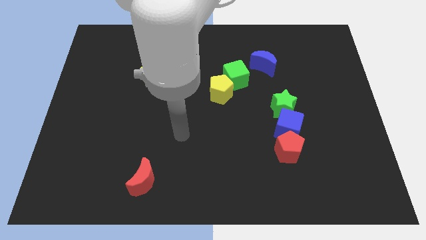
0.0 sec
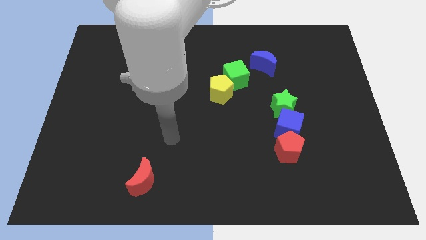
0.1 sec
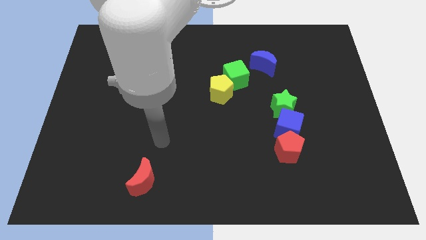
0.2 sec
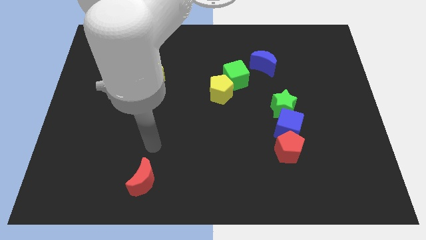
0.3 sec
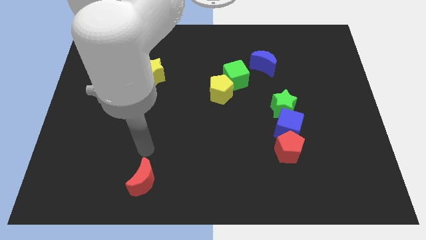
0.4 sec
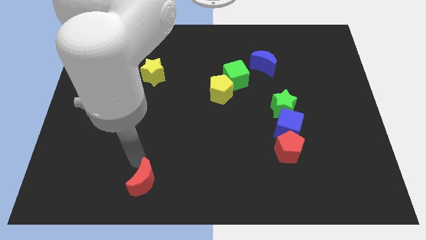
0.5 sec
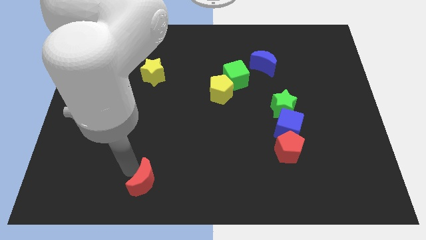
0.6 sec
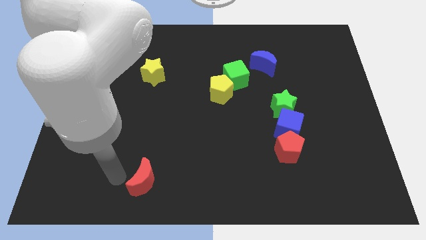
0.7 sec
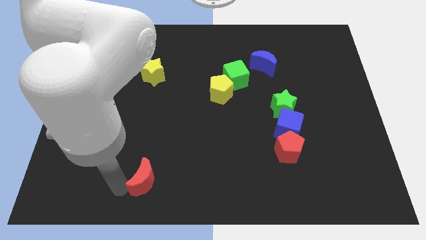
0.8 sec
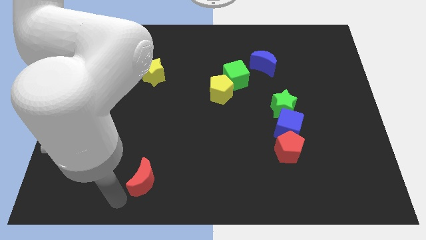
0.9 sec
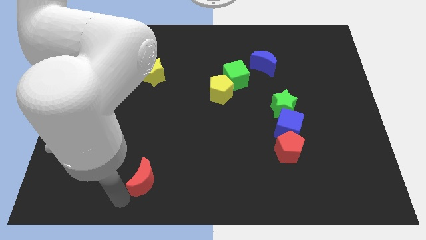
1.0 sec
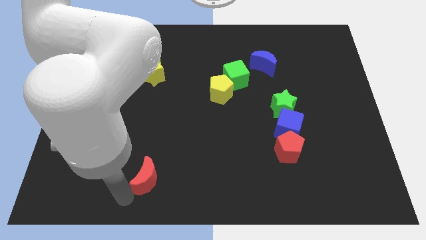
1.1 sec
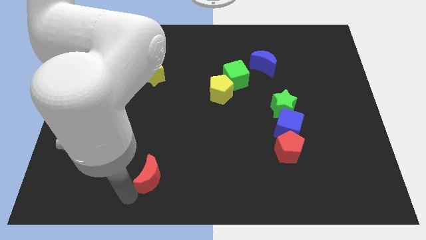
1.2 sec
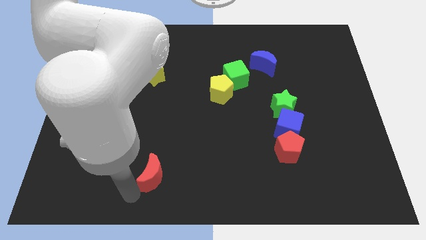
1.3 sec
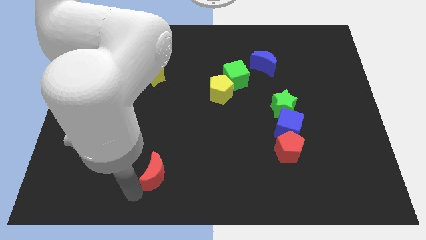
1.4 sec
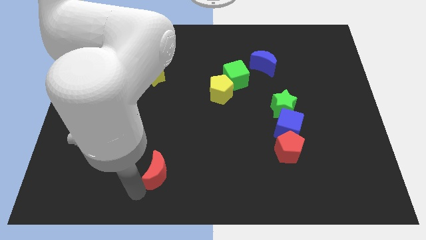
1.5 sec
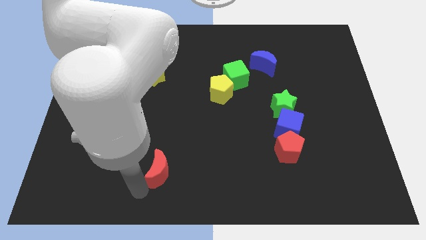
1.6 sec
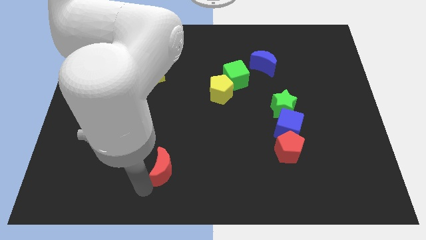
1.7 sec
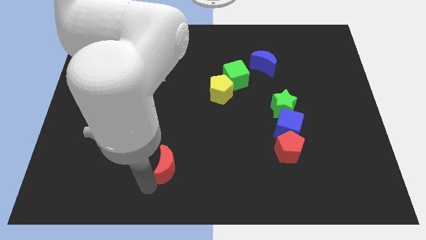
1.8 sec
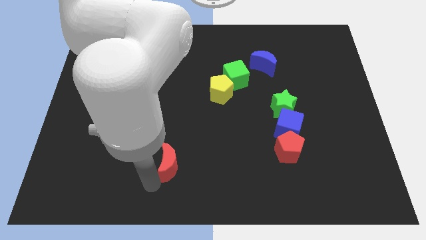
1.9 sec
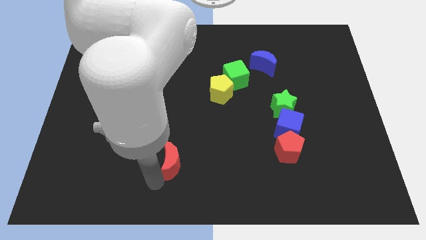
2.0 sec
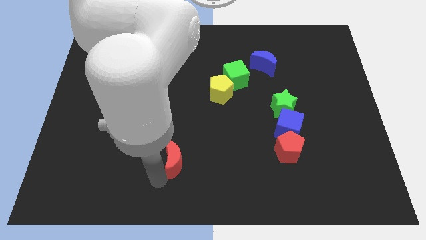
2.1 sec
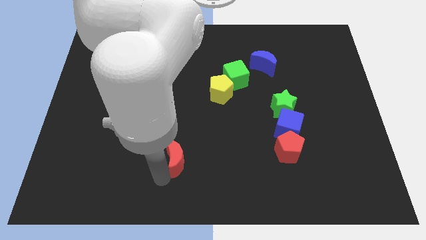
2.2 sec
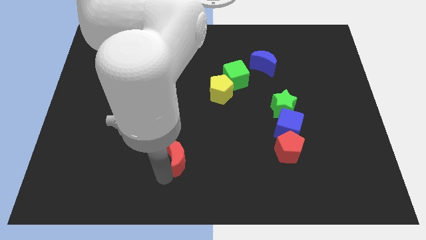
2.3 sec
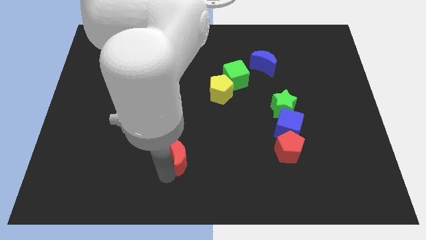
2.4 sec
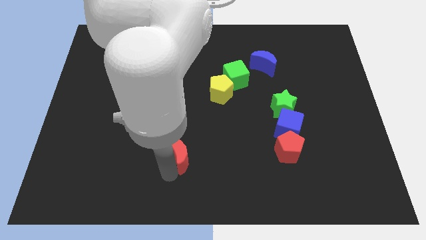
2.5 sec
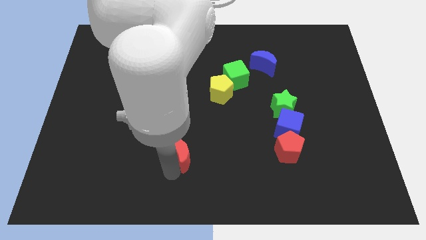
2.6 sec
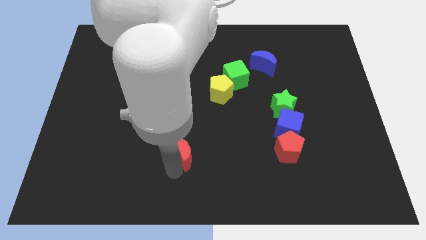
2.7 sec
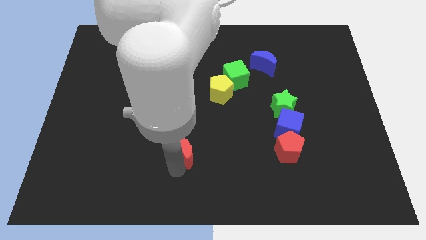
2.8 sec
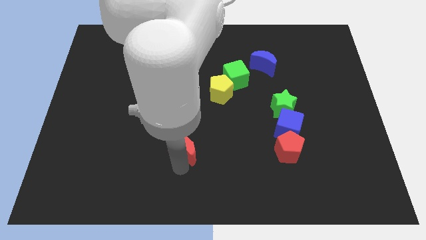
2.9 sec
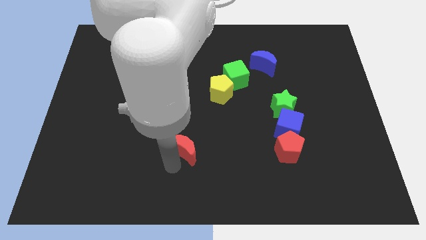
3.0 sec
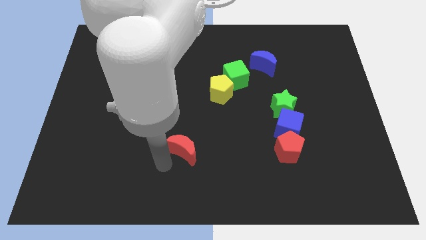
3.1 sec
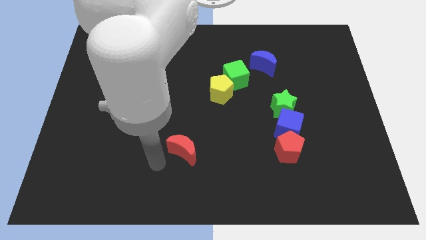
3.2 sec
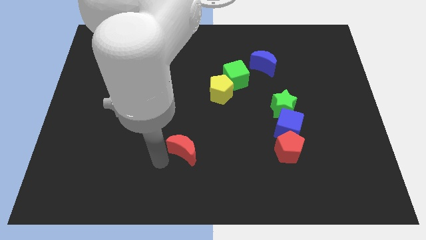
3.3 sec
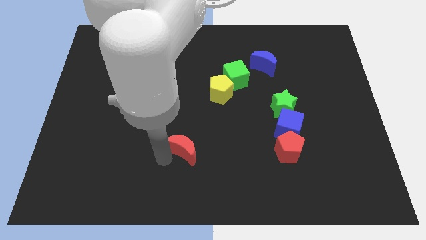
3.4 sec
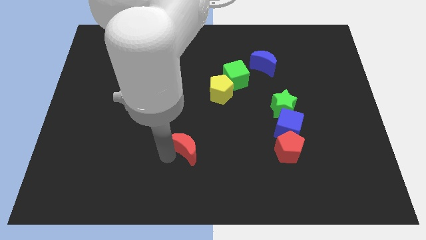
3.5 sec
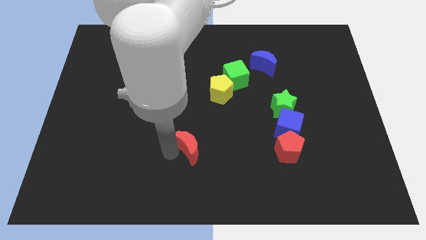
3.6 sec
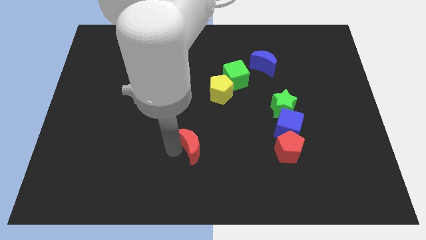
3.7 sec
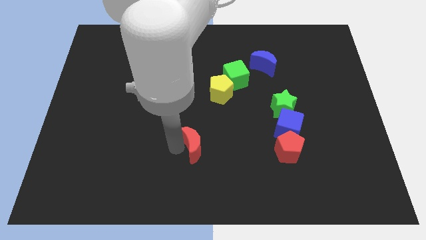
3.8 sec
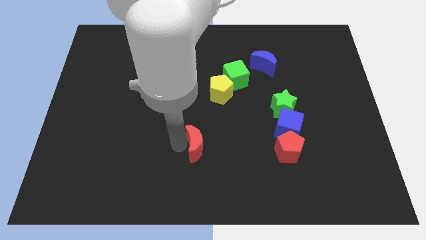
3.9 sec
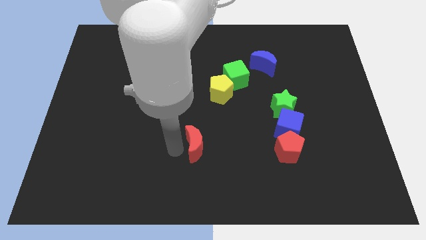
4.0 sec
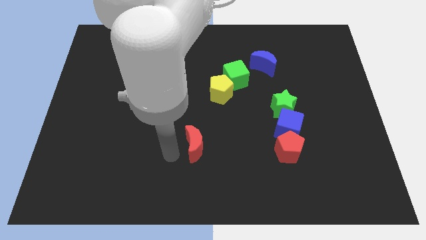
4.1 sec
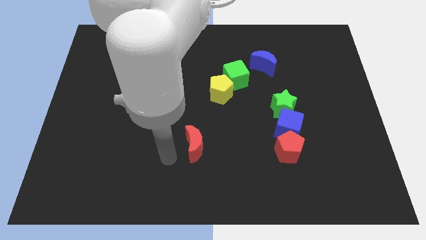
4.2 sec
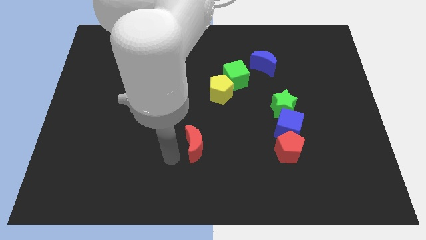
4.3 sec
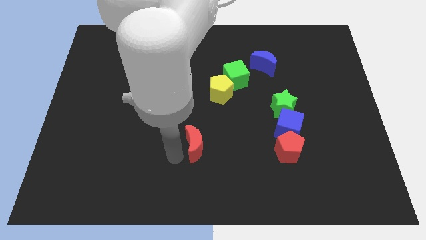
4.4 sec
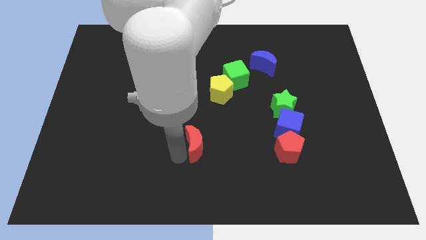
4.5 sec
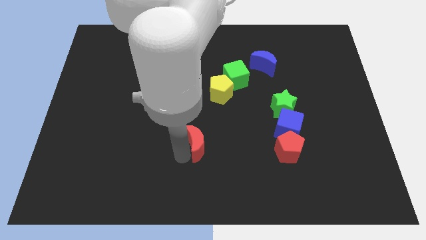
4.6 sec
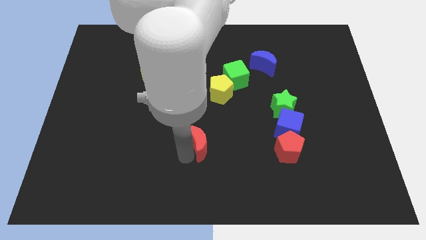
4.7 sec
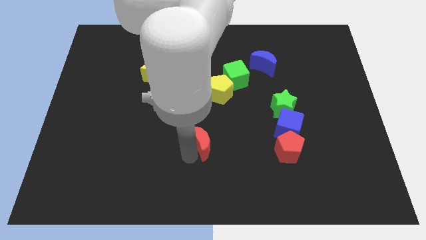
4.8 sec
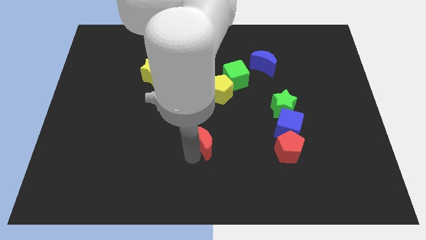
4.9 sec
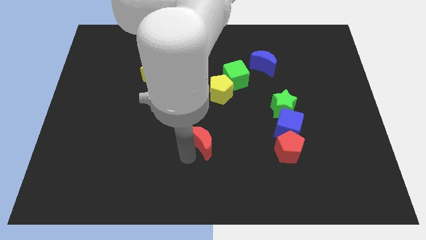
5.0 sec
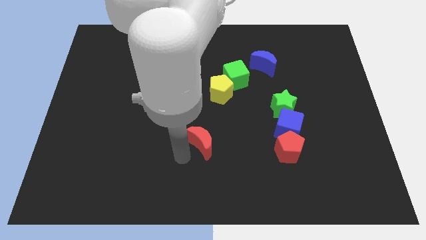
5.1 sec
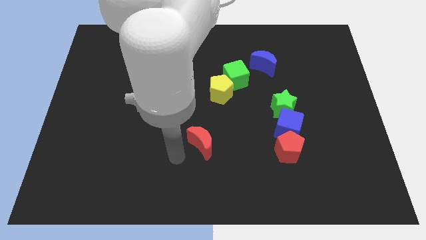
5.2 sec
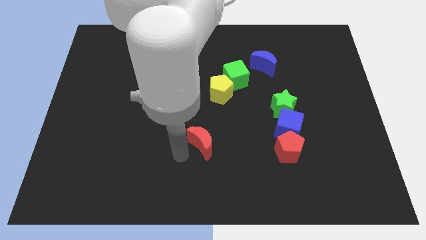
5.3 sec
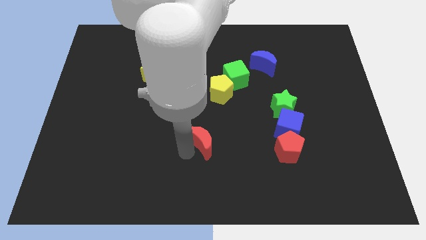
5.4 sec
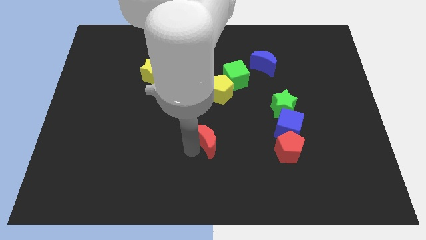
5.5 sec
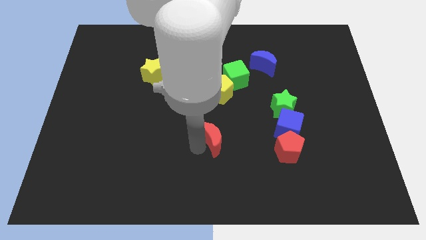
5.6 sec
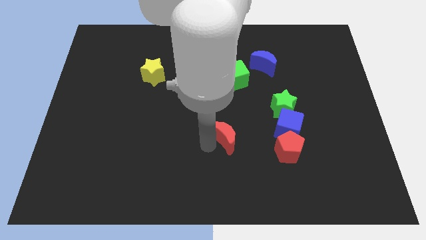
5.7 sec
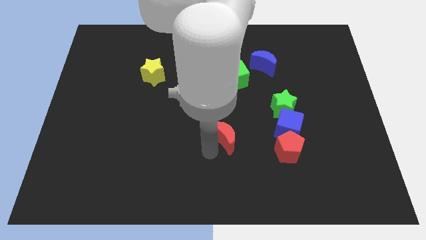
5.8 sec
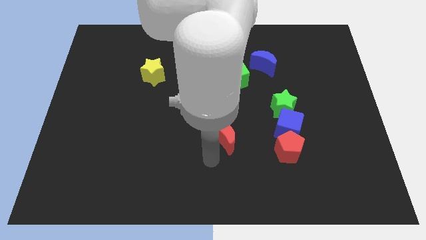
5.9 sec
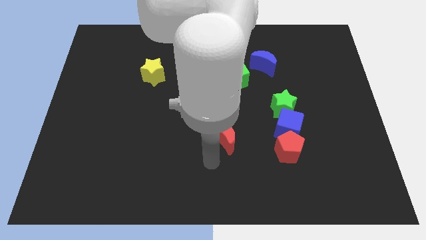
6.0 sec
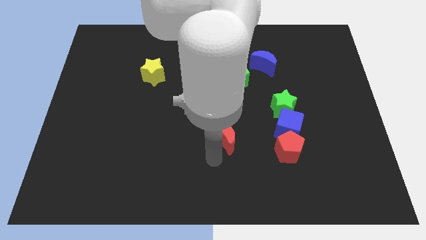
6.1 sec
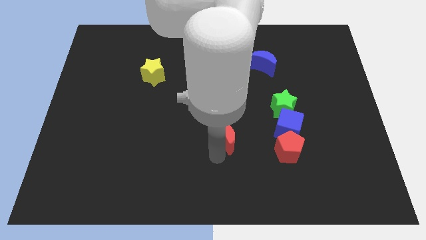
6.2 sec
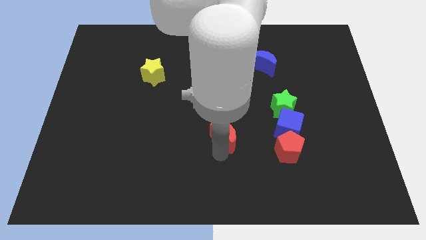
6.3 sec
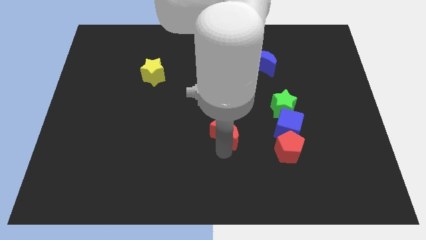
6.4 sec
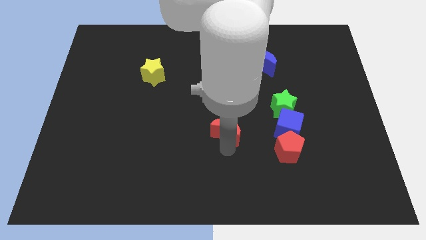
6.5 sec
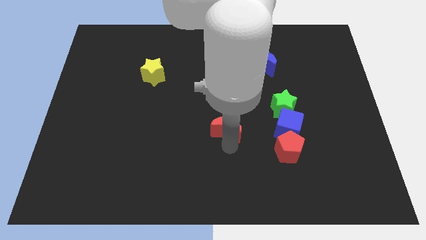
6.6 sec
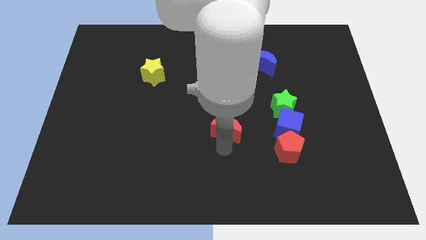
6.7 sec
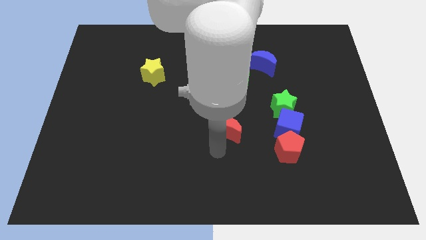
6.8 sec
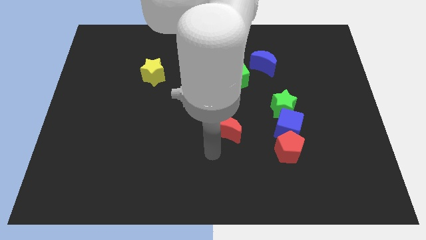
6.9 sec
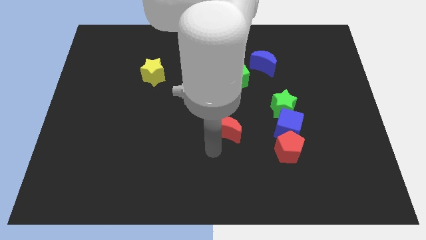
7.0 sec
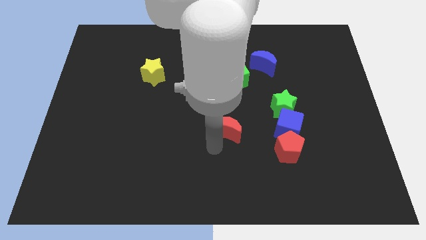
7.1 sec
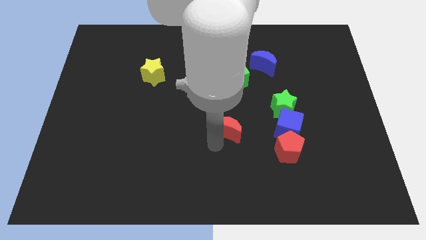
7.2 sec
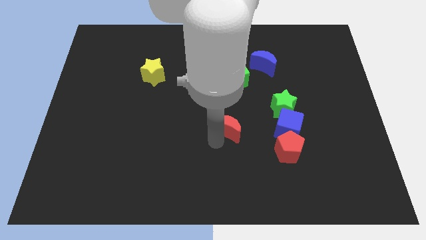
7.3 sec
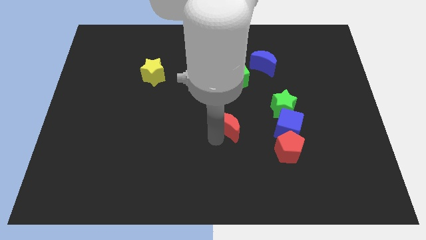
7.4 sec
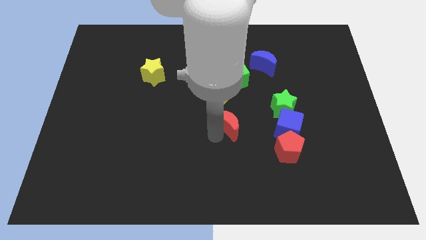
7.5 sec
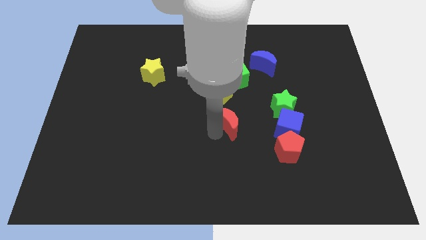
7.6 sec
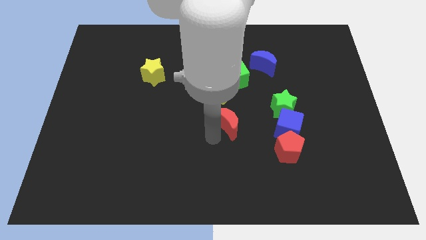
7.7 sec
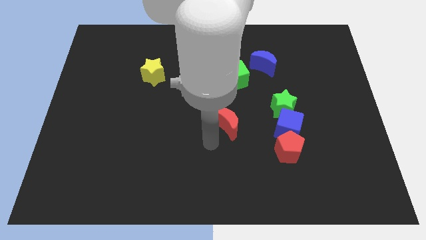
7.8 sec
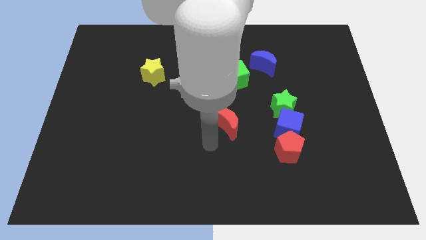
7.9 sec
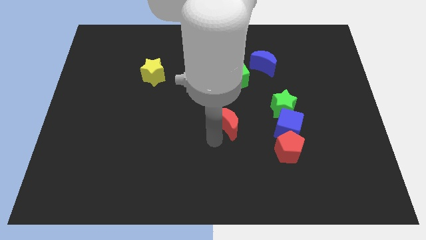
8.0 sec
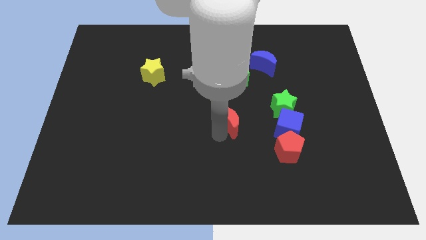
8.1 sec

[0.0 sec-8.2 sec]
put the red moon to the bottom right side of the yellow pentagon
